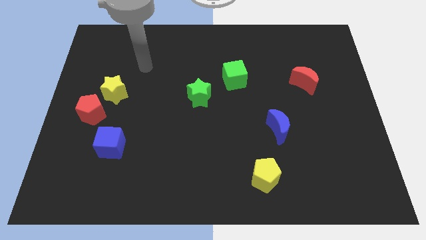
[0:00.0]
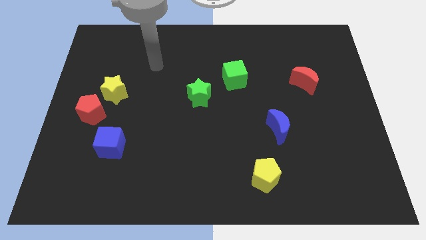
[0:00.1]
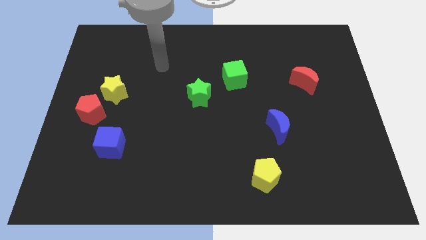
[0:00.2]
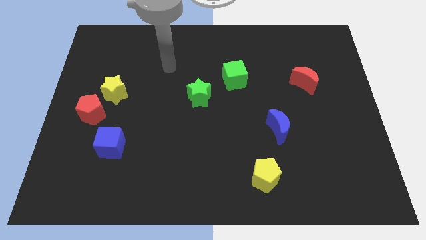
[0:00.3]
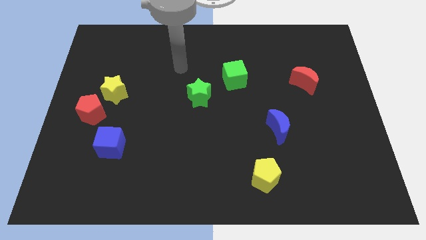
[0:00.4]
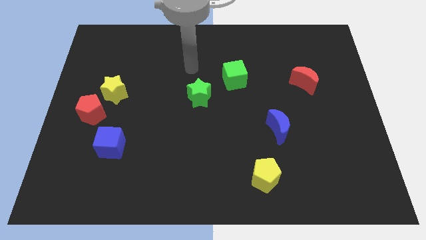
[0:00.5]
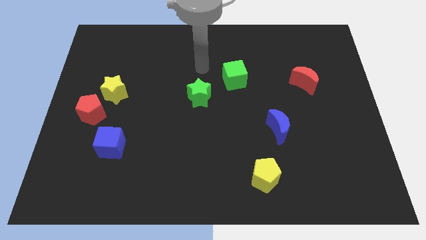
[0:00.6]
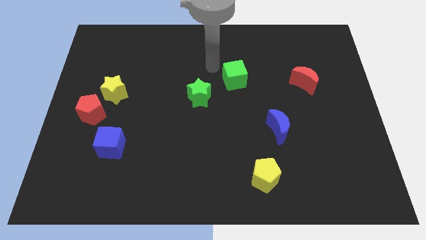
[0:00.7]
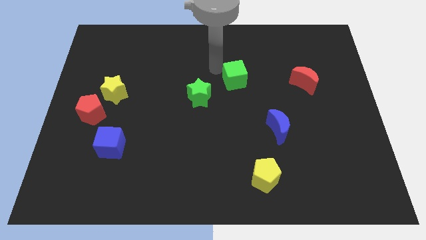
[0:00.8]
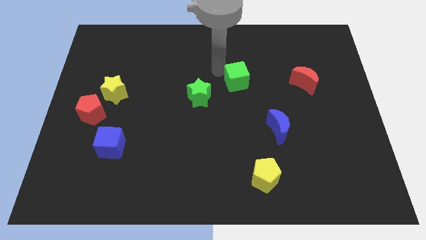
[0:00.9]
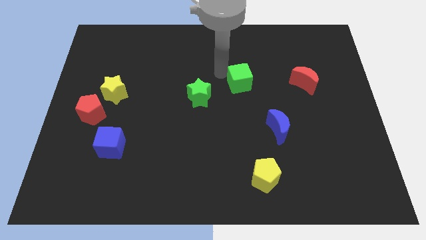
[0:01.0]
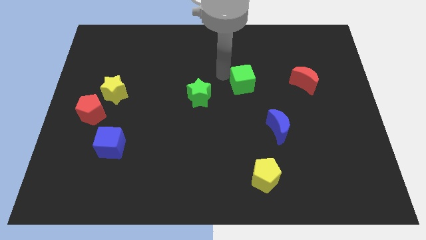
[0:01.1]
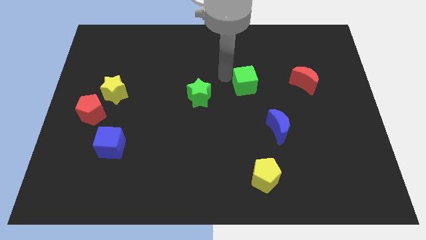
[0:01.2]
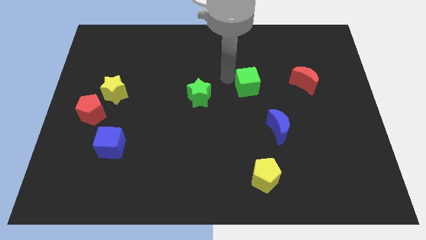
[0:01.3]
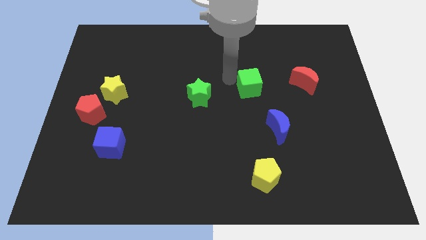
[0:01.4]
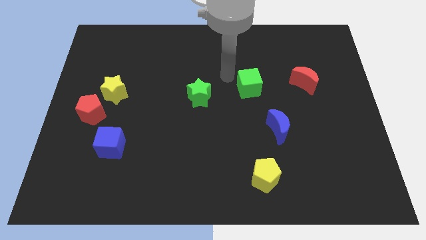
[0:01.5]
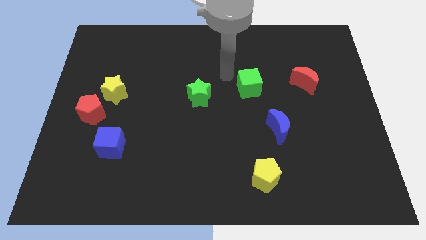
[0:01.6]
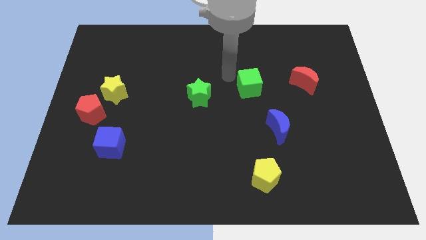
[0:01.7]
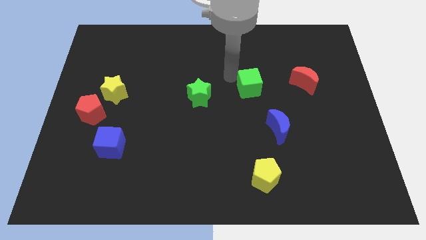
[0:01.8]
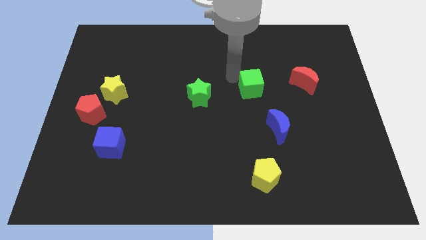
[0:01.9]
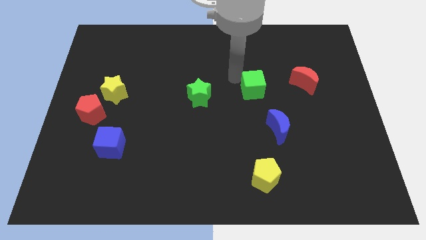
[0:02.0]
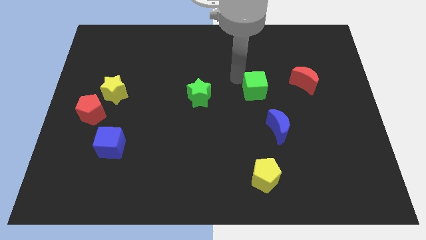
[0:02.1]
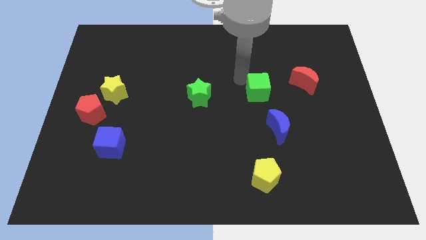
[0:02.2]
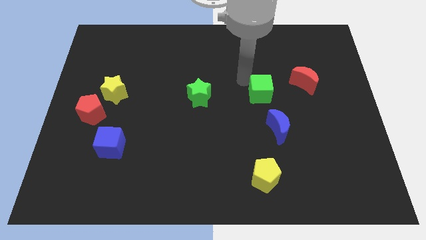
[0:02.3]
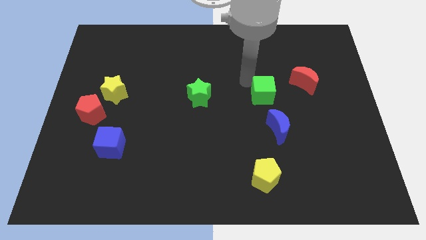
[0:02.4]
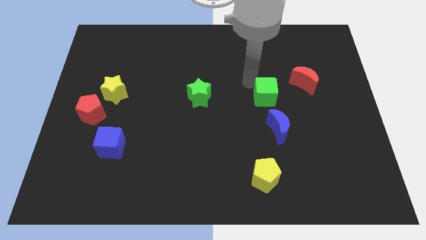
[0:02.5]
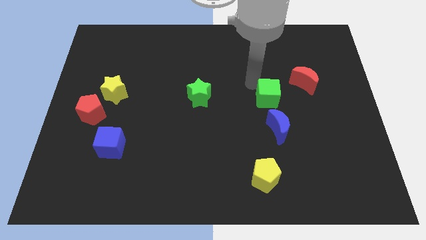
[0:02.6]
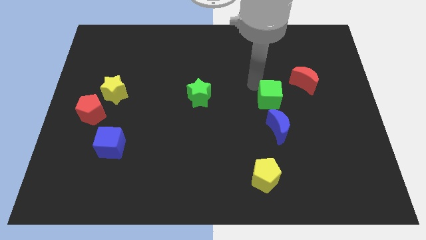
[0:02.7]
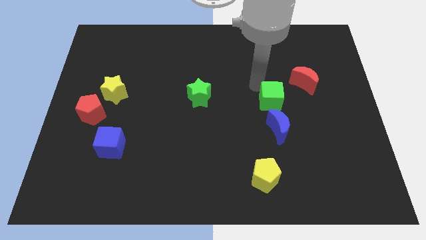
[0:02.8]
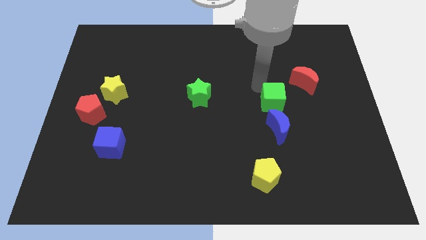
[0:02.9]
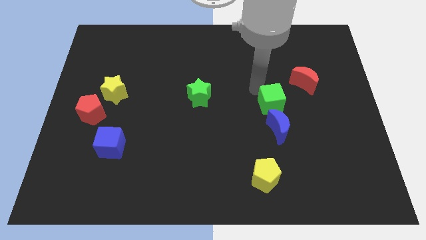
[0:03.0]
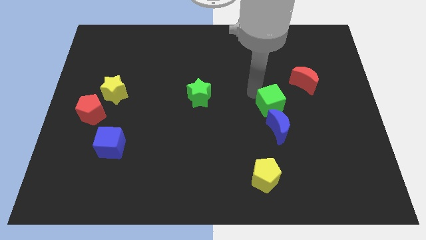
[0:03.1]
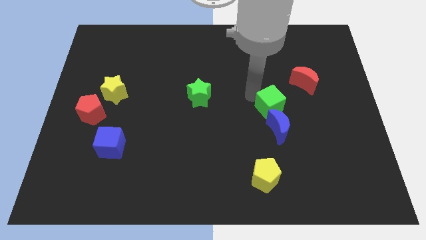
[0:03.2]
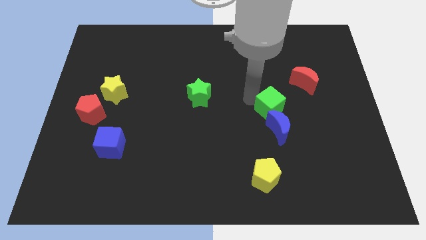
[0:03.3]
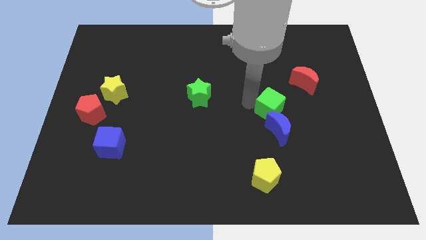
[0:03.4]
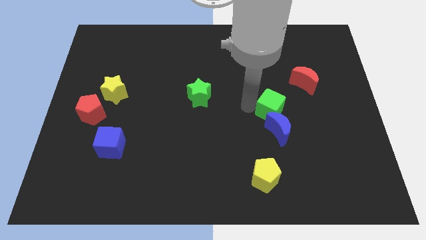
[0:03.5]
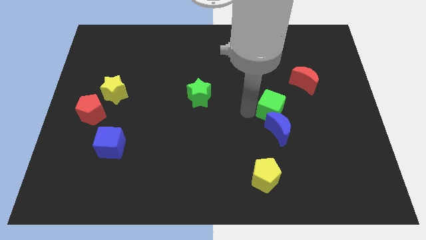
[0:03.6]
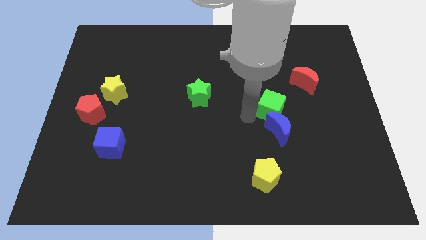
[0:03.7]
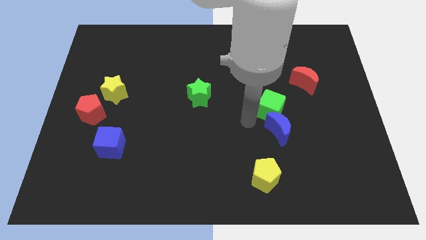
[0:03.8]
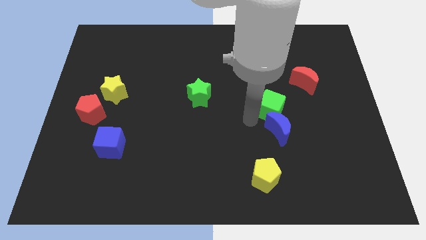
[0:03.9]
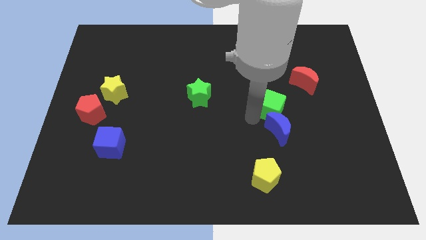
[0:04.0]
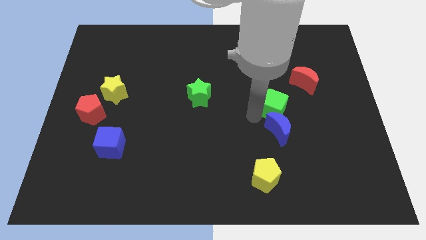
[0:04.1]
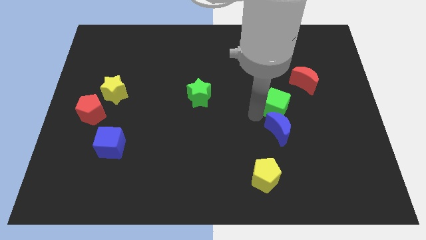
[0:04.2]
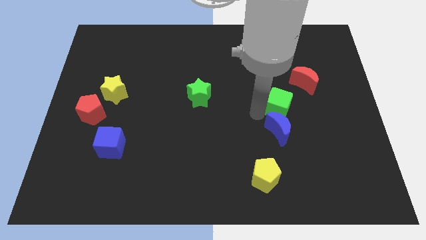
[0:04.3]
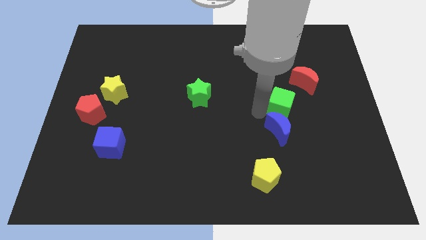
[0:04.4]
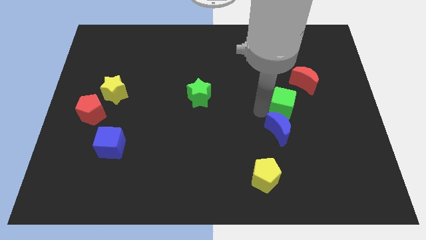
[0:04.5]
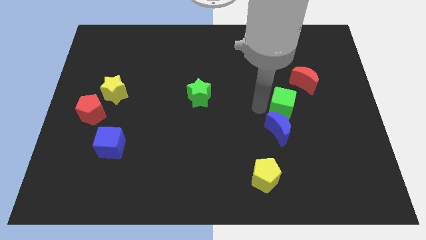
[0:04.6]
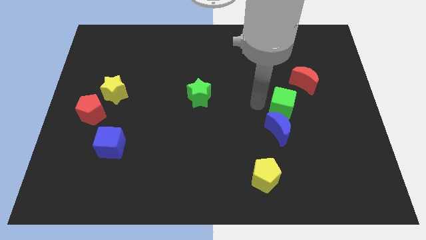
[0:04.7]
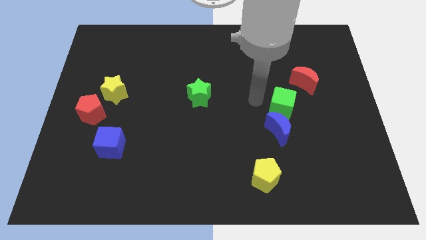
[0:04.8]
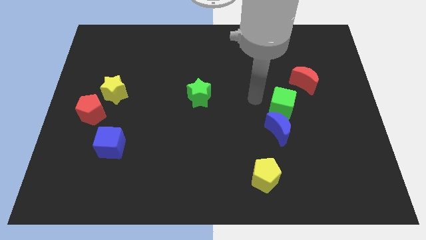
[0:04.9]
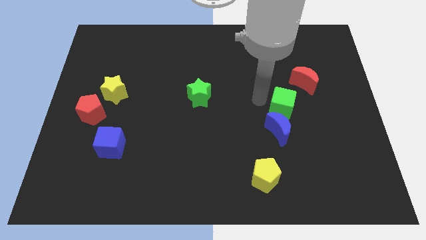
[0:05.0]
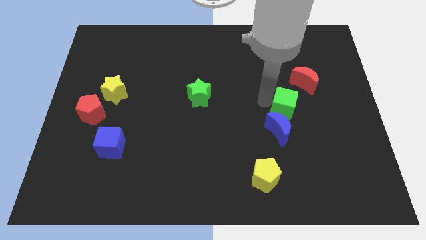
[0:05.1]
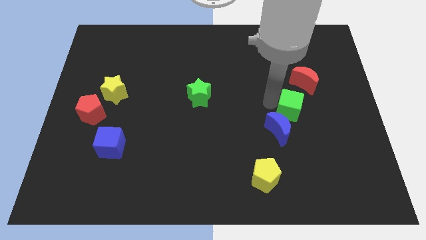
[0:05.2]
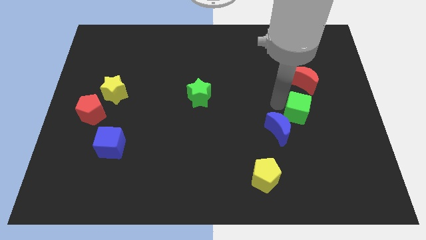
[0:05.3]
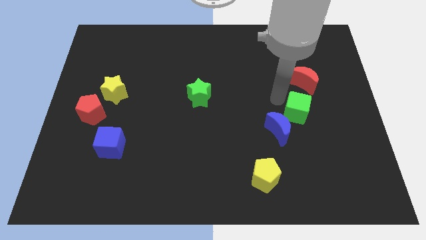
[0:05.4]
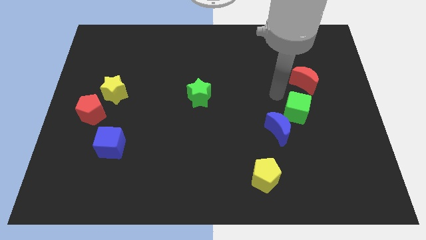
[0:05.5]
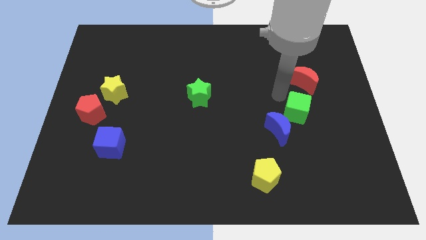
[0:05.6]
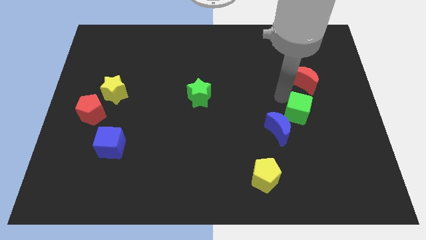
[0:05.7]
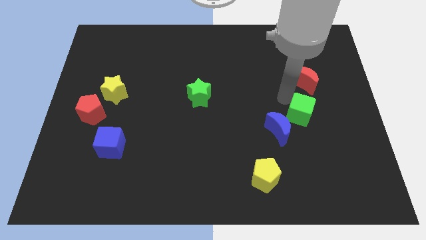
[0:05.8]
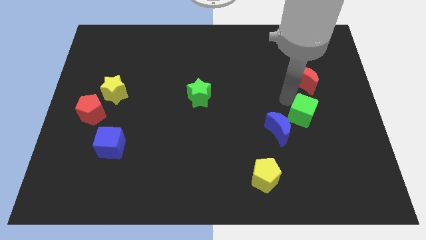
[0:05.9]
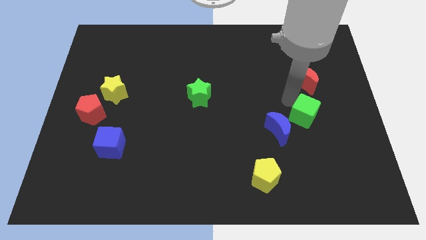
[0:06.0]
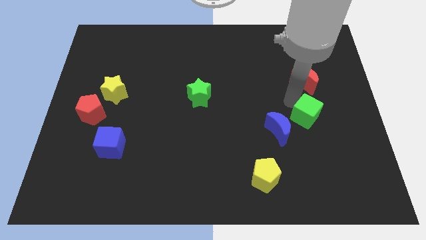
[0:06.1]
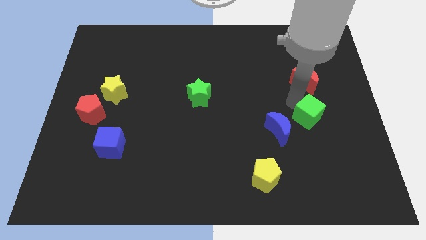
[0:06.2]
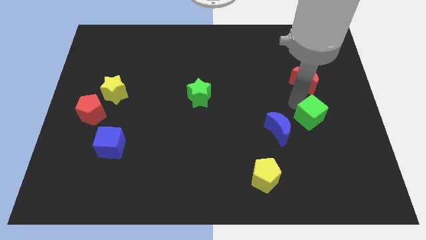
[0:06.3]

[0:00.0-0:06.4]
slide the green cube down and right

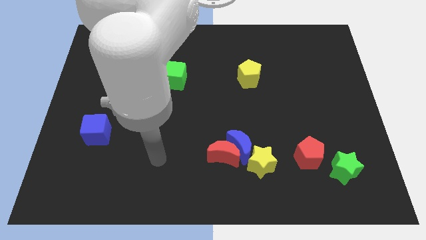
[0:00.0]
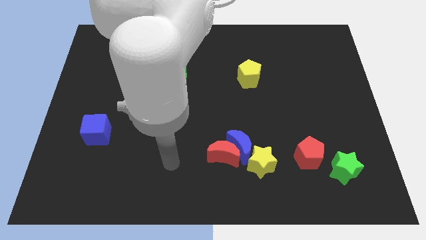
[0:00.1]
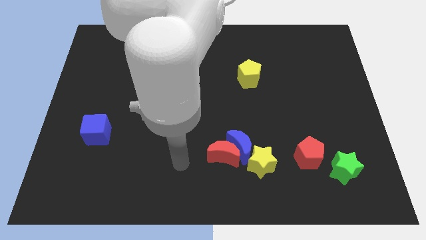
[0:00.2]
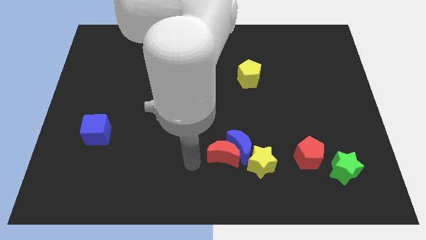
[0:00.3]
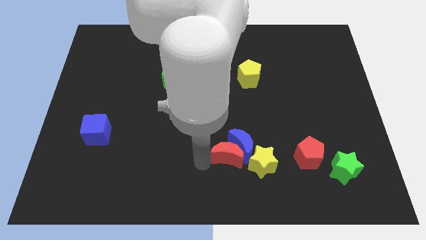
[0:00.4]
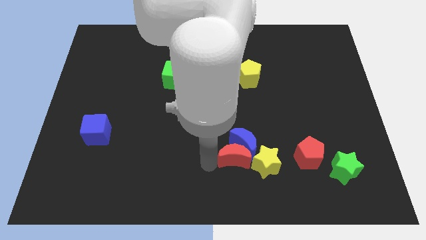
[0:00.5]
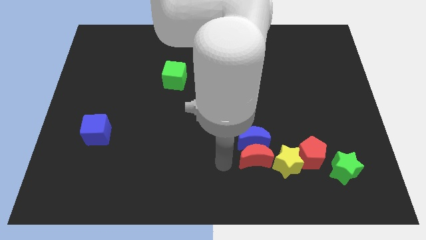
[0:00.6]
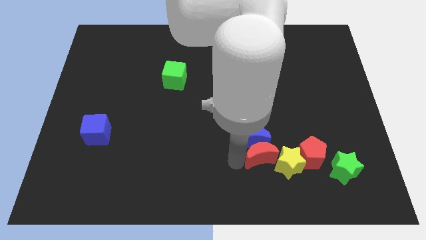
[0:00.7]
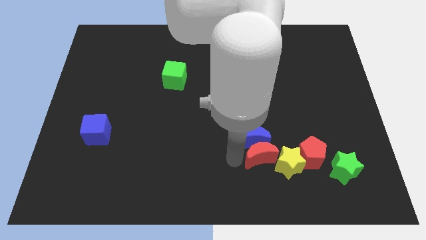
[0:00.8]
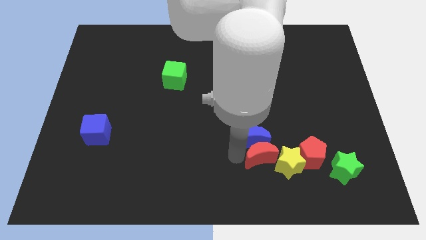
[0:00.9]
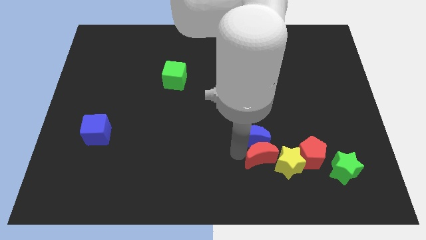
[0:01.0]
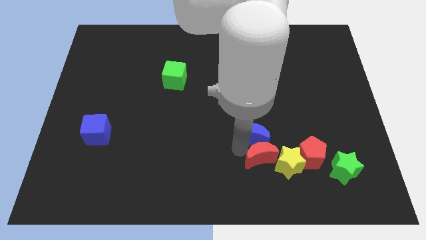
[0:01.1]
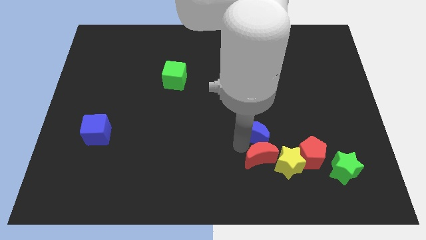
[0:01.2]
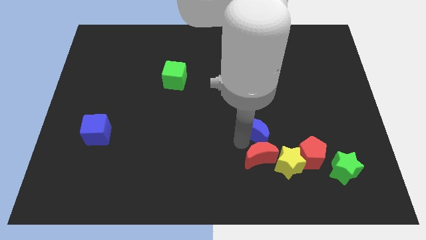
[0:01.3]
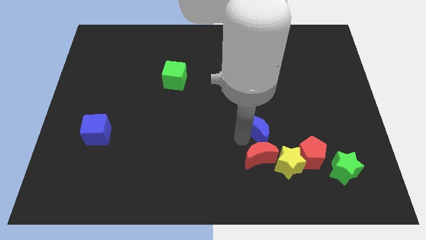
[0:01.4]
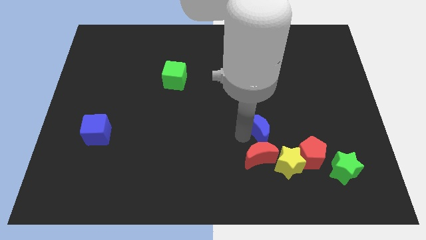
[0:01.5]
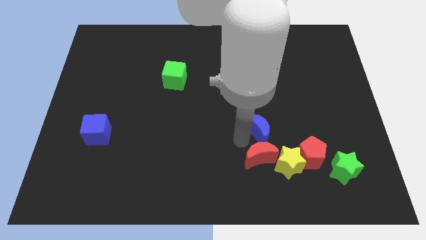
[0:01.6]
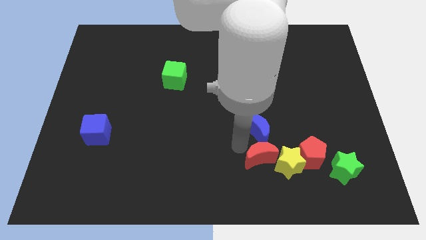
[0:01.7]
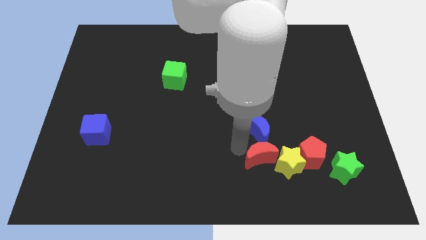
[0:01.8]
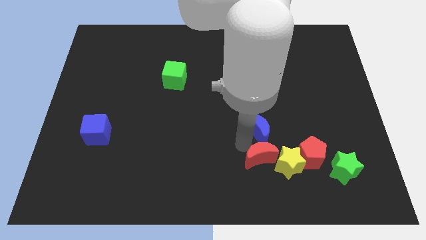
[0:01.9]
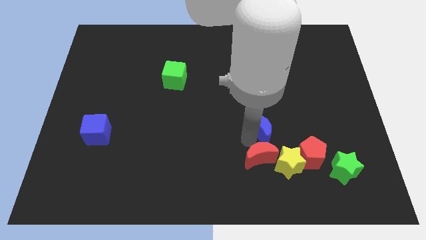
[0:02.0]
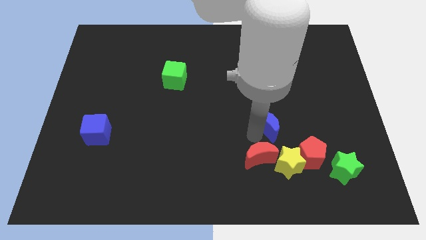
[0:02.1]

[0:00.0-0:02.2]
move the blue moon a little bit up and to the right
